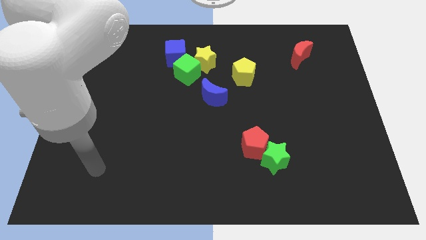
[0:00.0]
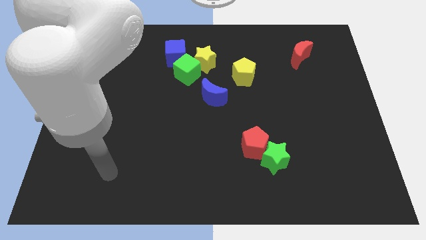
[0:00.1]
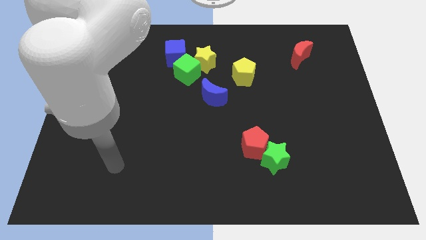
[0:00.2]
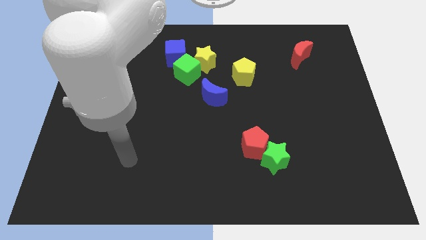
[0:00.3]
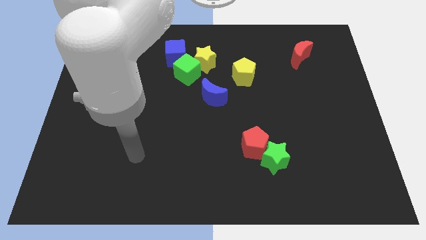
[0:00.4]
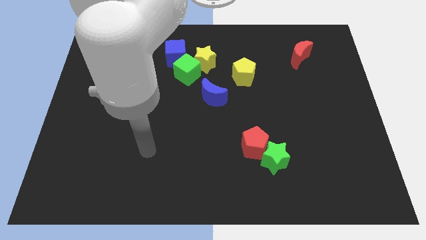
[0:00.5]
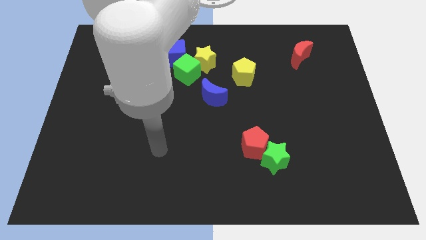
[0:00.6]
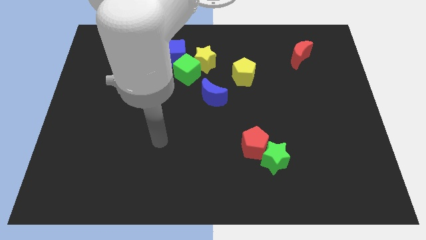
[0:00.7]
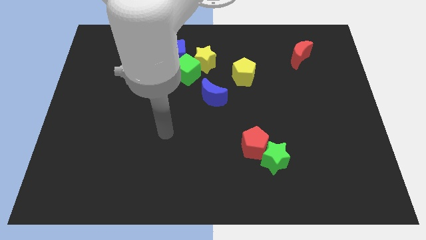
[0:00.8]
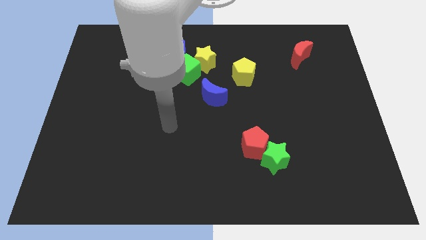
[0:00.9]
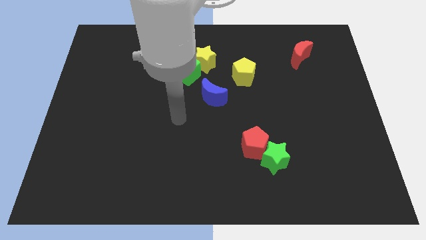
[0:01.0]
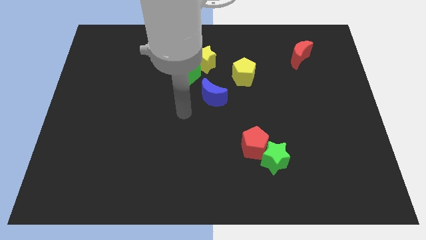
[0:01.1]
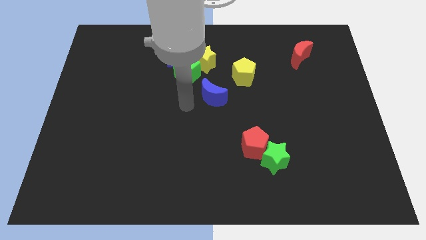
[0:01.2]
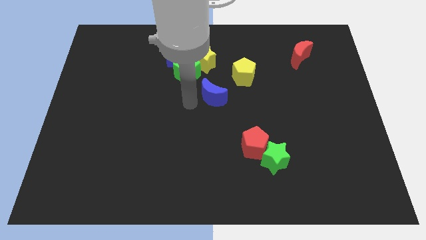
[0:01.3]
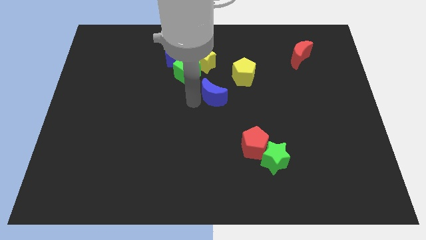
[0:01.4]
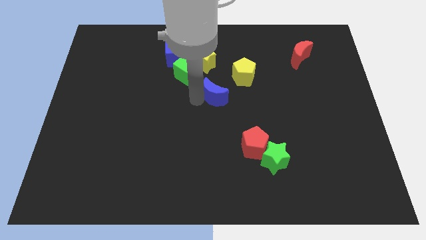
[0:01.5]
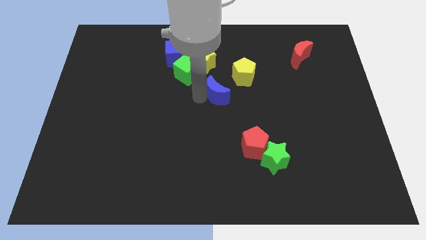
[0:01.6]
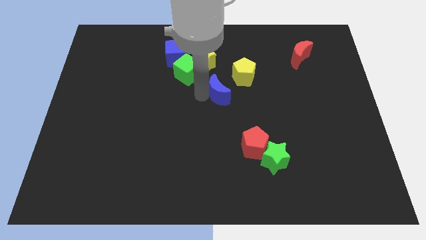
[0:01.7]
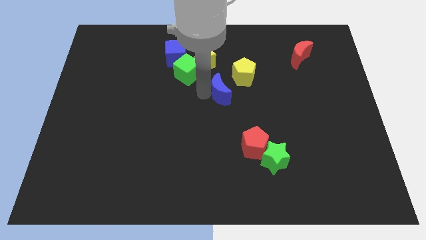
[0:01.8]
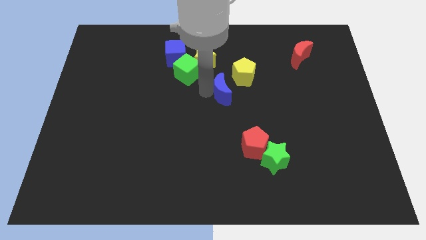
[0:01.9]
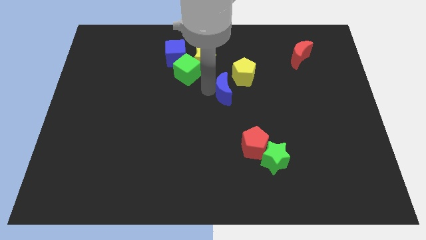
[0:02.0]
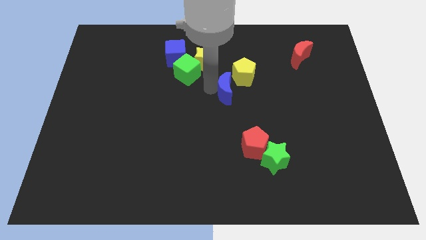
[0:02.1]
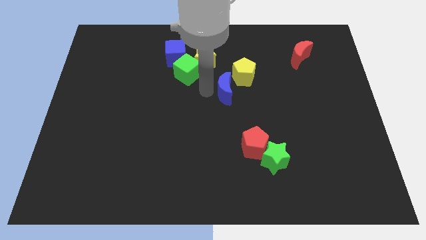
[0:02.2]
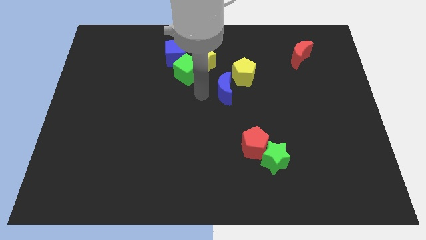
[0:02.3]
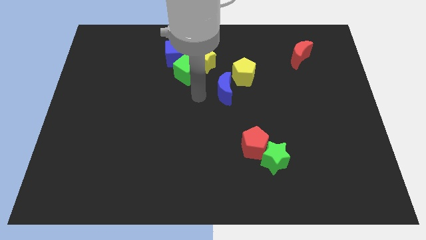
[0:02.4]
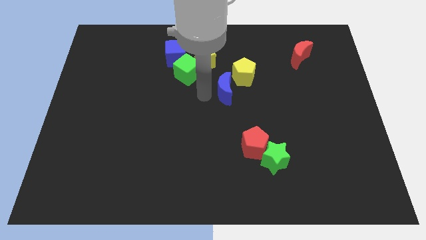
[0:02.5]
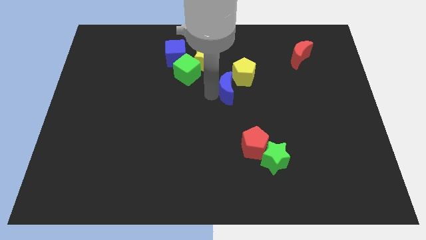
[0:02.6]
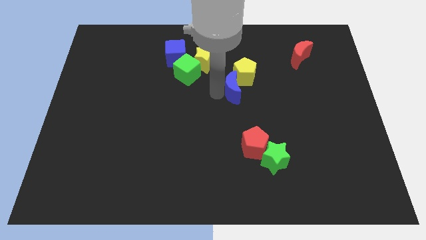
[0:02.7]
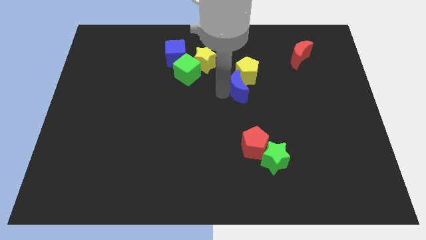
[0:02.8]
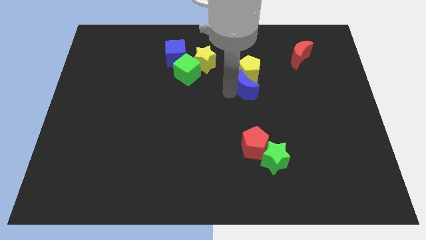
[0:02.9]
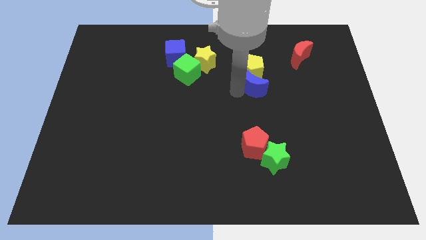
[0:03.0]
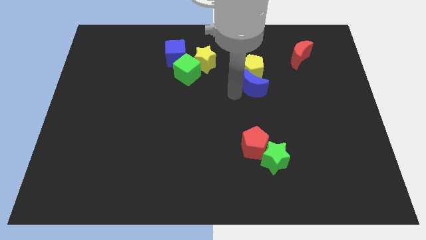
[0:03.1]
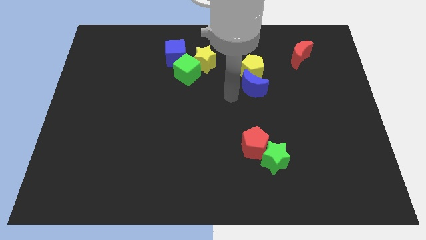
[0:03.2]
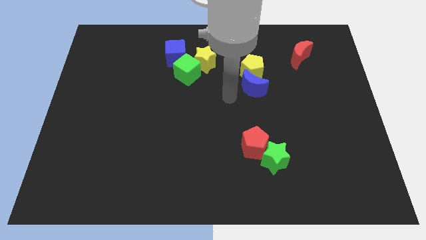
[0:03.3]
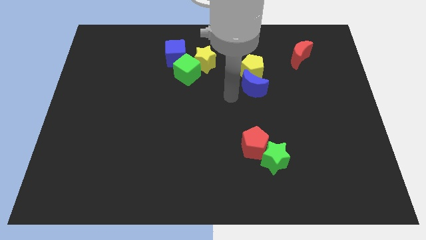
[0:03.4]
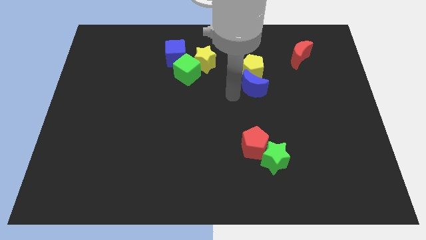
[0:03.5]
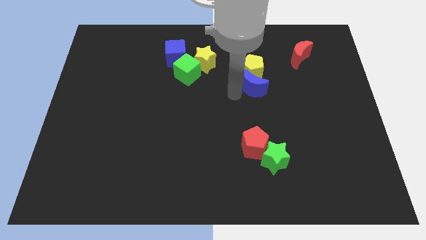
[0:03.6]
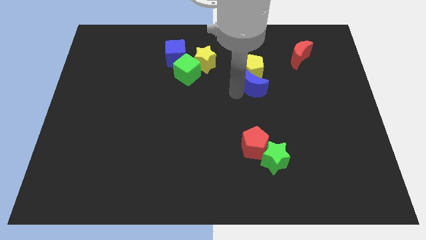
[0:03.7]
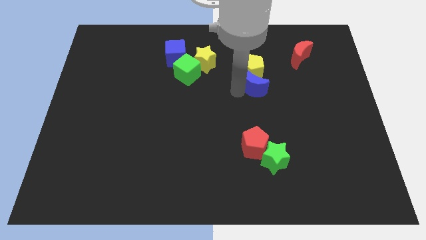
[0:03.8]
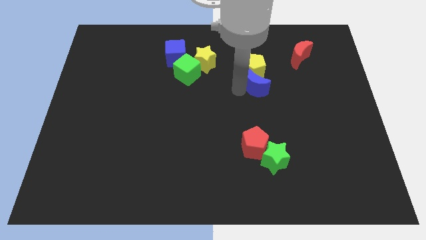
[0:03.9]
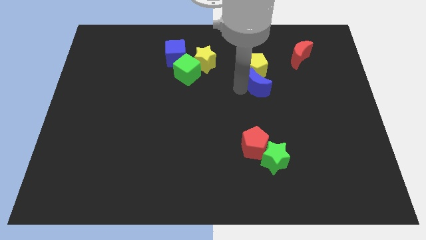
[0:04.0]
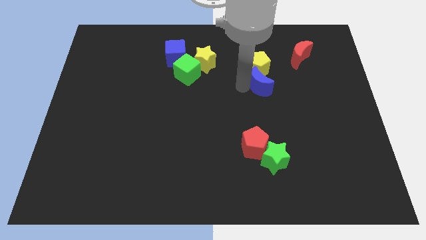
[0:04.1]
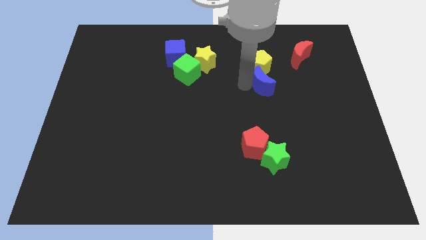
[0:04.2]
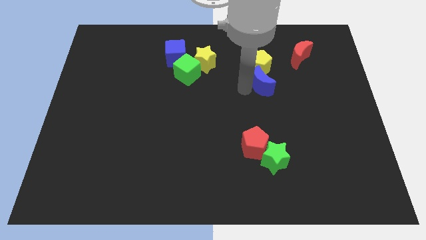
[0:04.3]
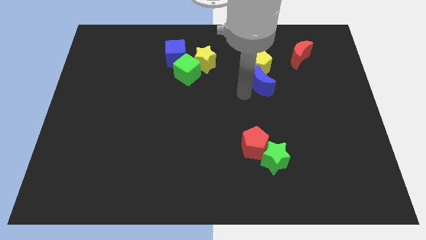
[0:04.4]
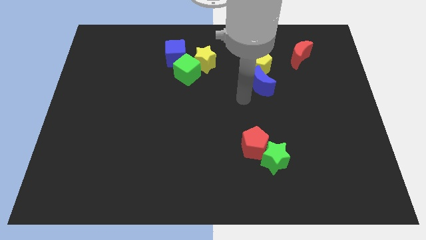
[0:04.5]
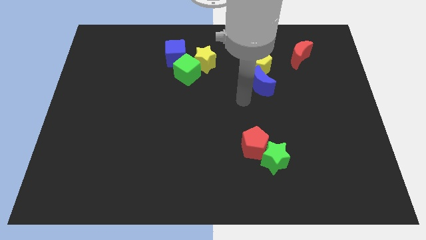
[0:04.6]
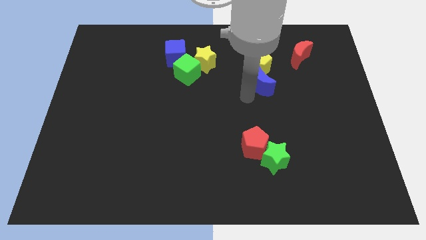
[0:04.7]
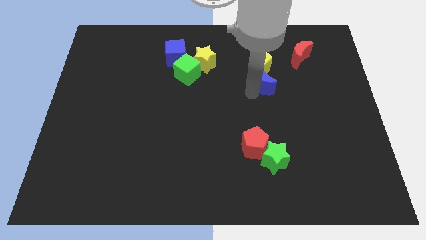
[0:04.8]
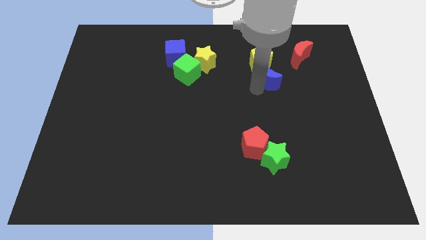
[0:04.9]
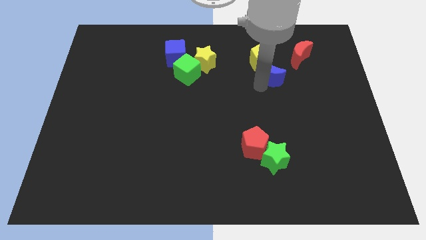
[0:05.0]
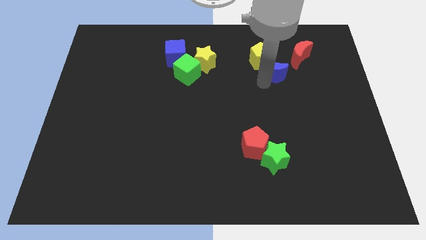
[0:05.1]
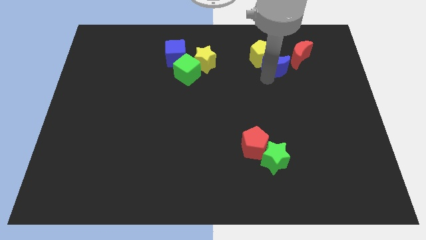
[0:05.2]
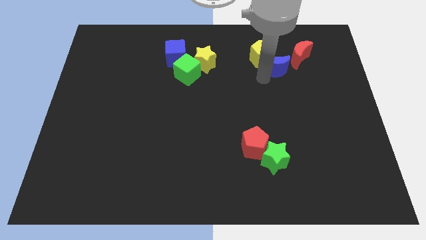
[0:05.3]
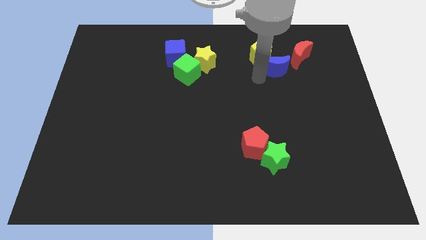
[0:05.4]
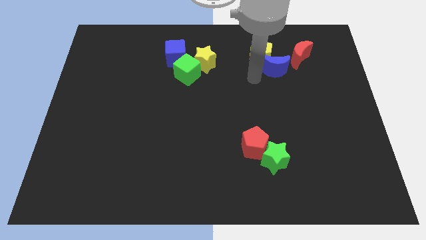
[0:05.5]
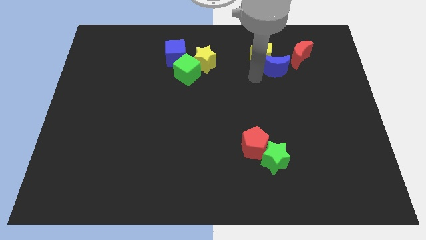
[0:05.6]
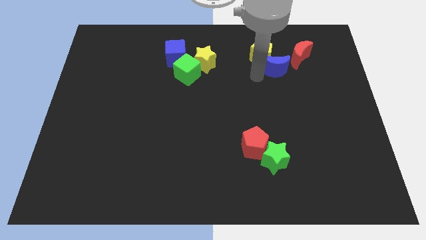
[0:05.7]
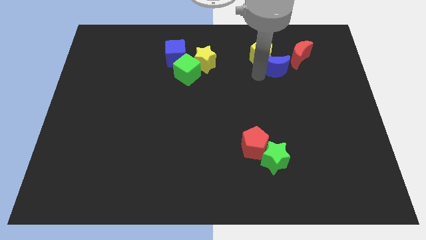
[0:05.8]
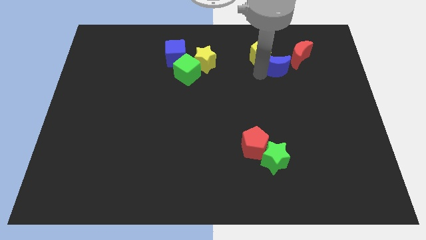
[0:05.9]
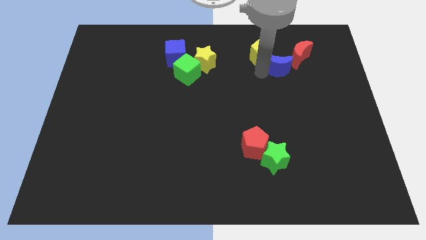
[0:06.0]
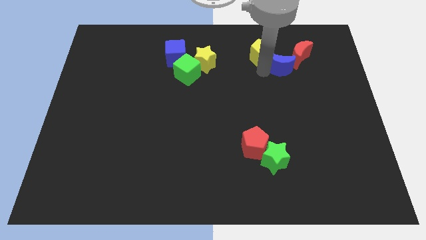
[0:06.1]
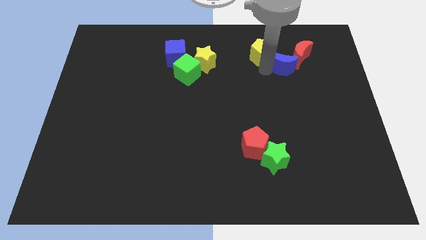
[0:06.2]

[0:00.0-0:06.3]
put the blue moon close to the red moon
